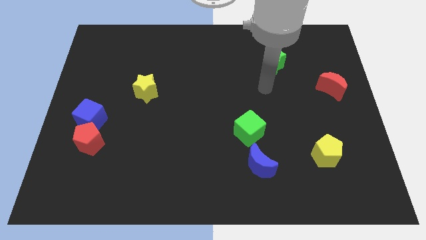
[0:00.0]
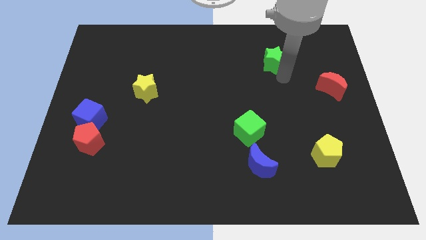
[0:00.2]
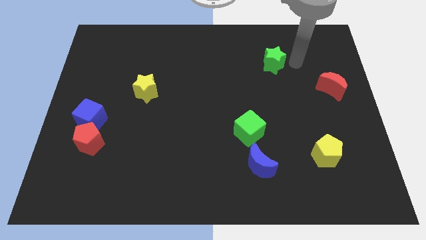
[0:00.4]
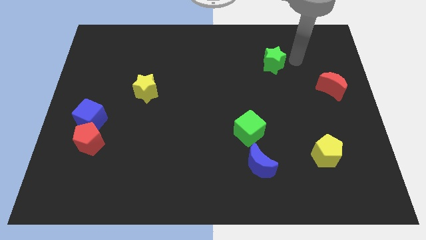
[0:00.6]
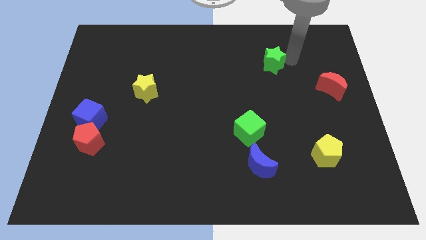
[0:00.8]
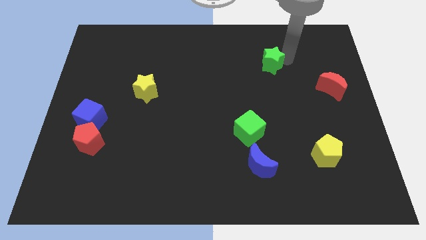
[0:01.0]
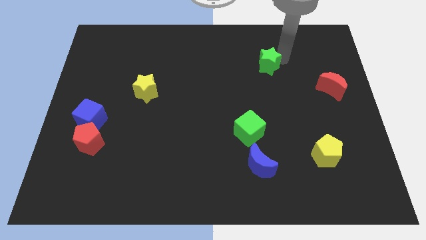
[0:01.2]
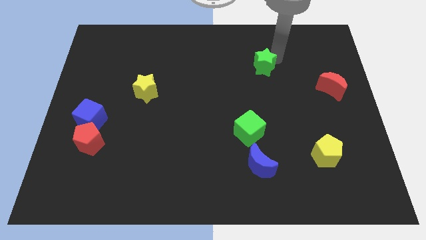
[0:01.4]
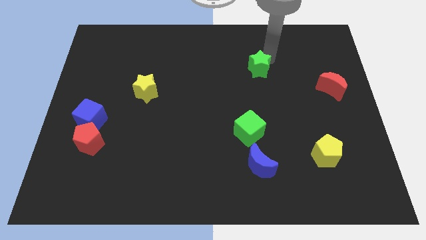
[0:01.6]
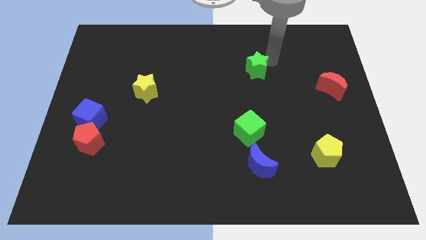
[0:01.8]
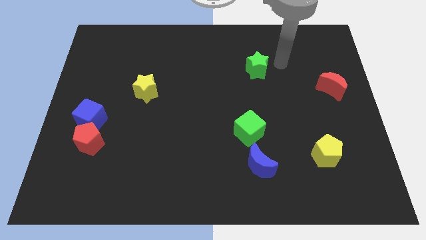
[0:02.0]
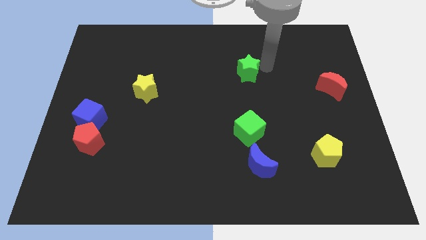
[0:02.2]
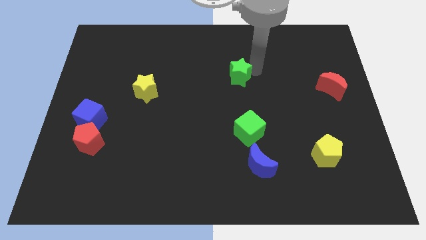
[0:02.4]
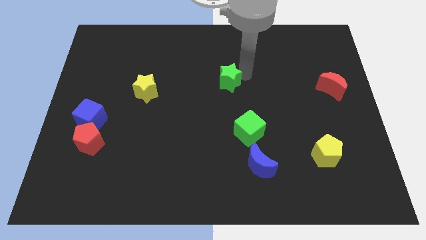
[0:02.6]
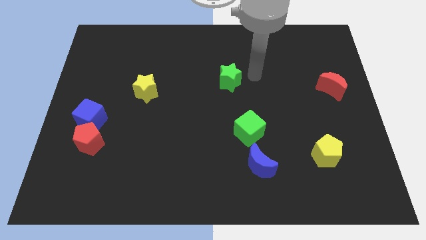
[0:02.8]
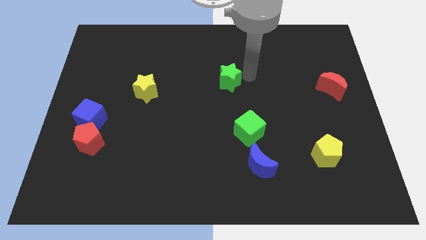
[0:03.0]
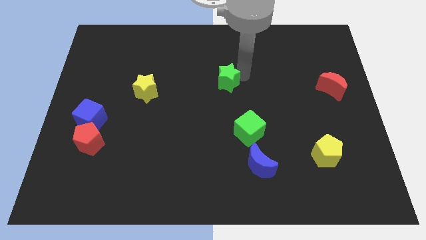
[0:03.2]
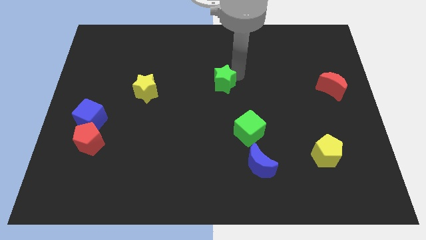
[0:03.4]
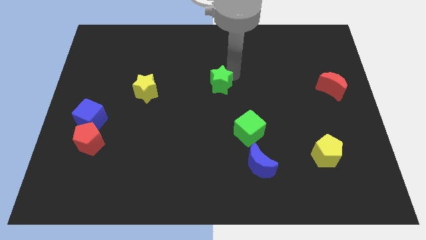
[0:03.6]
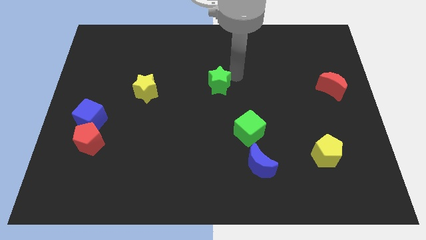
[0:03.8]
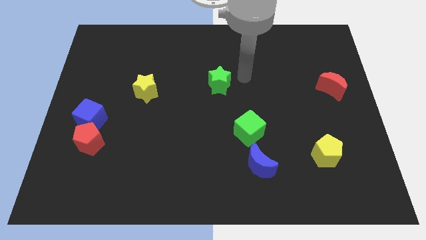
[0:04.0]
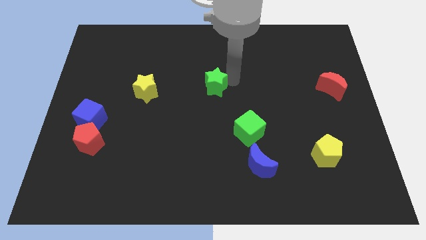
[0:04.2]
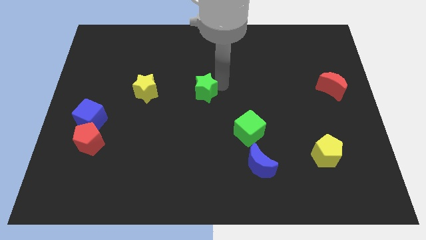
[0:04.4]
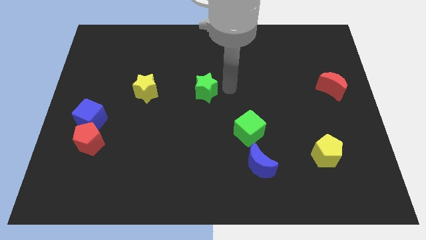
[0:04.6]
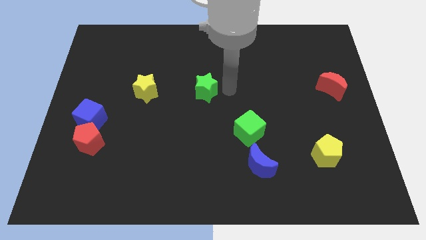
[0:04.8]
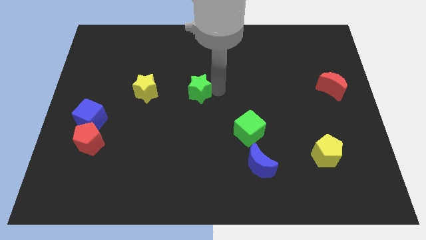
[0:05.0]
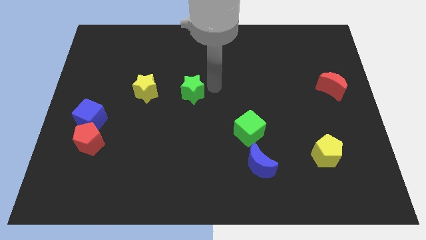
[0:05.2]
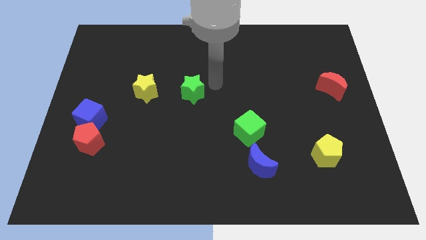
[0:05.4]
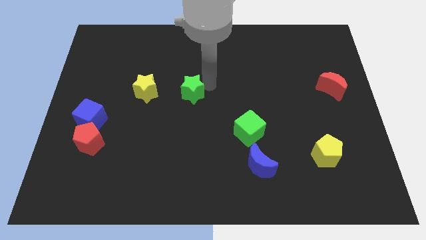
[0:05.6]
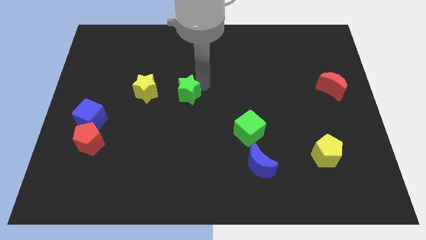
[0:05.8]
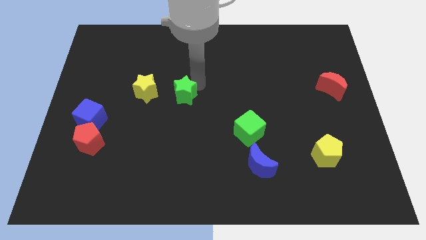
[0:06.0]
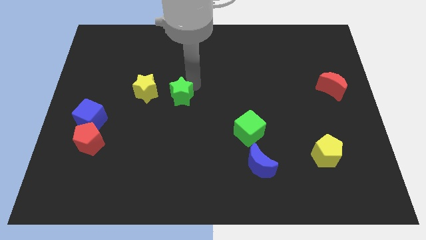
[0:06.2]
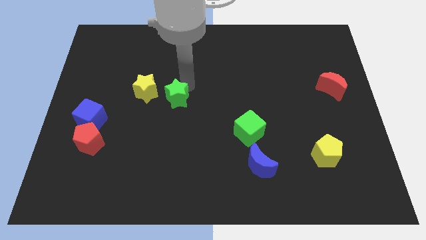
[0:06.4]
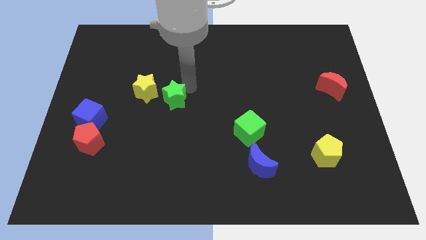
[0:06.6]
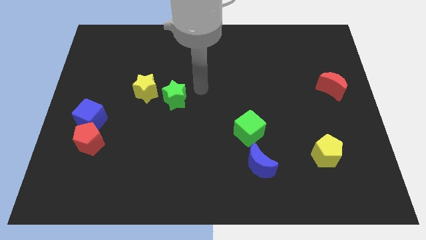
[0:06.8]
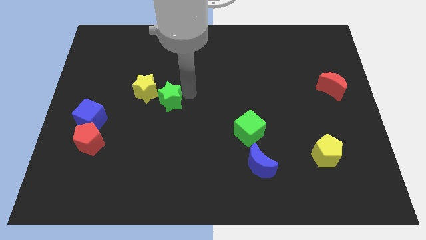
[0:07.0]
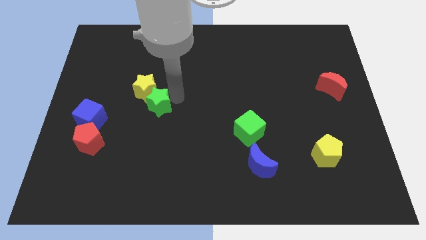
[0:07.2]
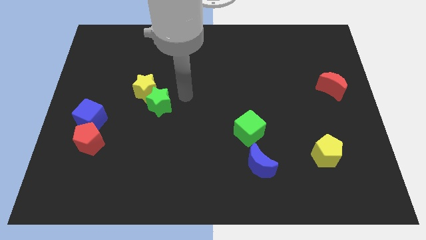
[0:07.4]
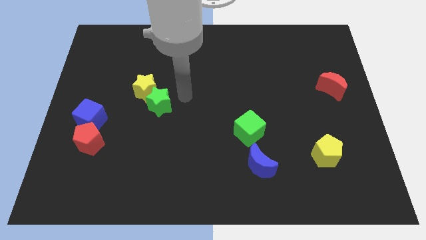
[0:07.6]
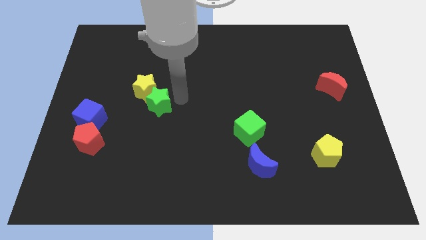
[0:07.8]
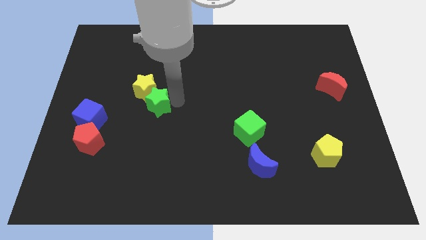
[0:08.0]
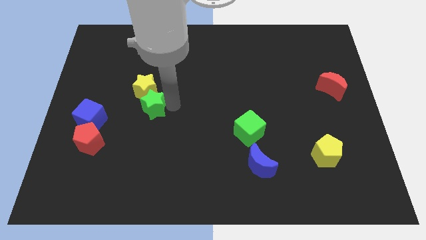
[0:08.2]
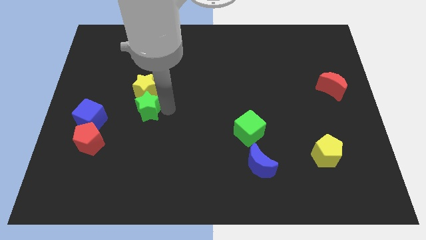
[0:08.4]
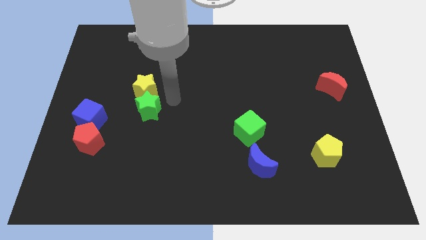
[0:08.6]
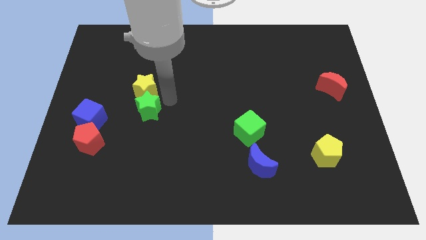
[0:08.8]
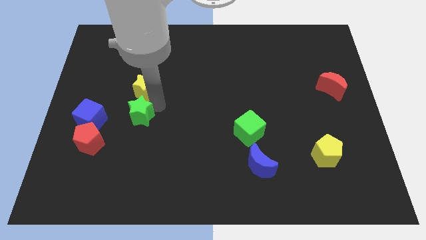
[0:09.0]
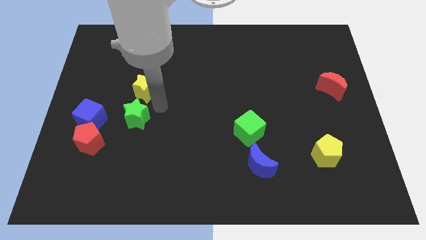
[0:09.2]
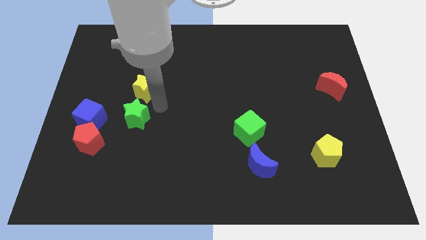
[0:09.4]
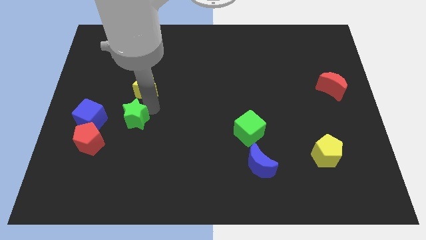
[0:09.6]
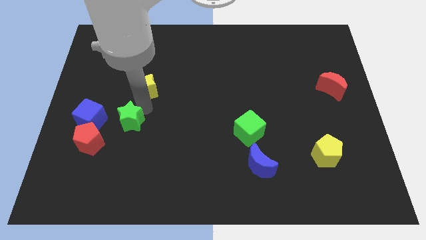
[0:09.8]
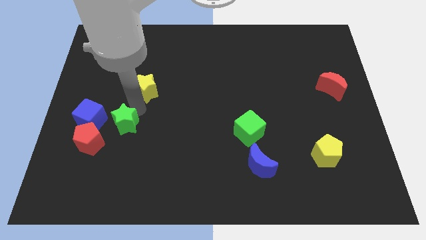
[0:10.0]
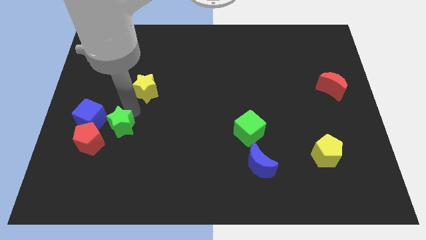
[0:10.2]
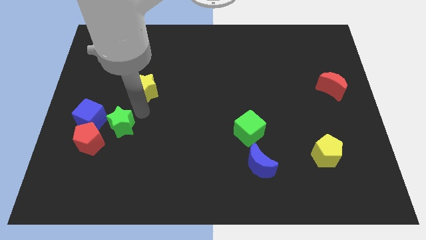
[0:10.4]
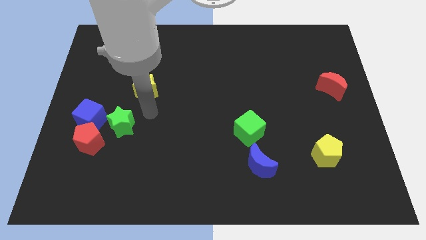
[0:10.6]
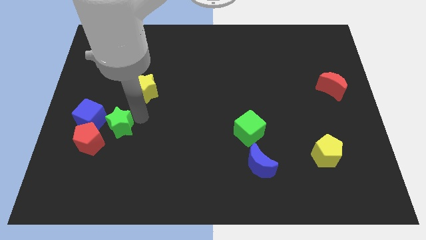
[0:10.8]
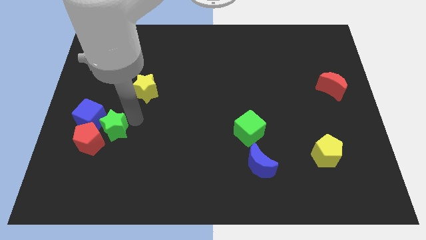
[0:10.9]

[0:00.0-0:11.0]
slide the green star towards the red pentagon

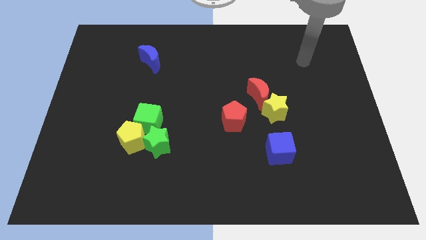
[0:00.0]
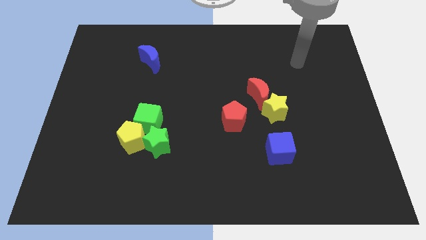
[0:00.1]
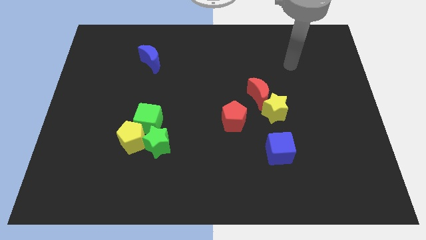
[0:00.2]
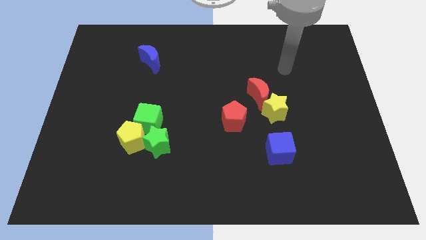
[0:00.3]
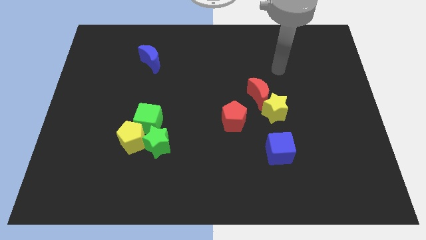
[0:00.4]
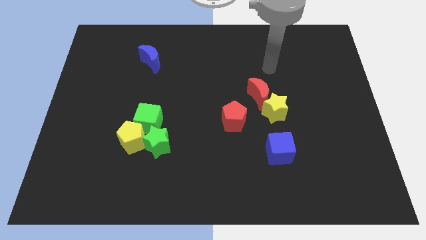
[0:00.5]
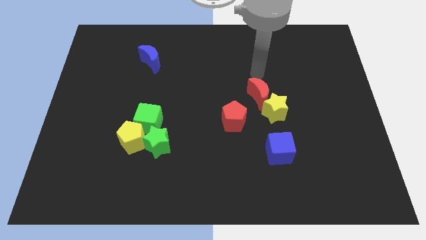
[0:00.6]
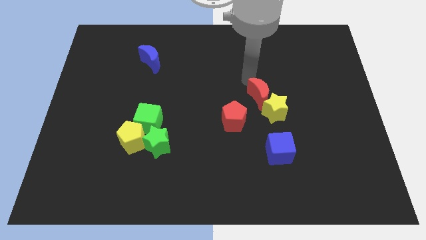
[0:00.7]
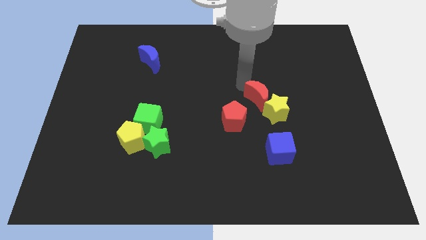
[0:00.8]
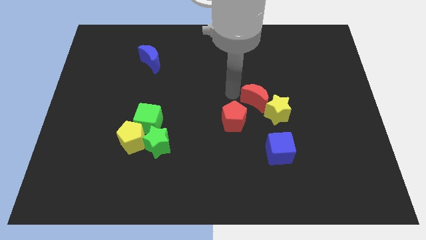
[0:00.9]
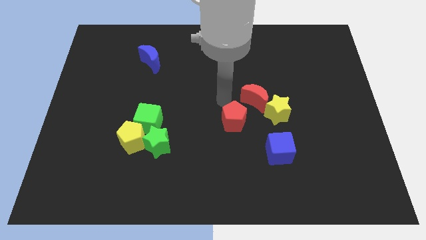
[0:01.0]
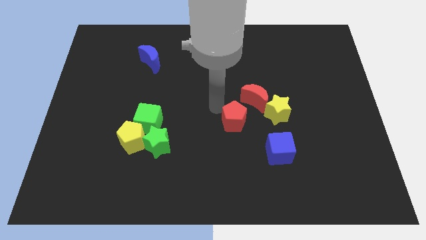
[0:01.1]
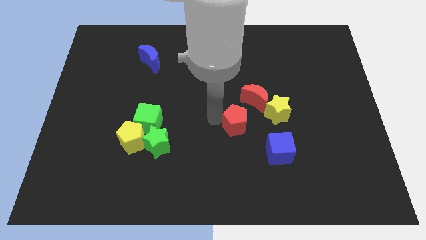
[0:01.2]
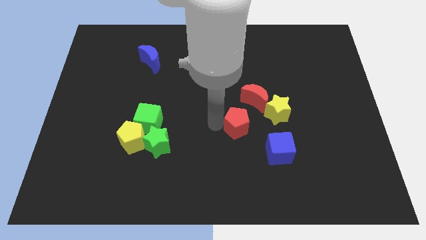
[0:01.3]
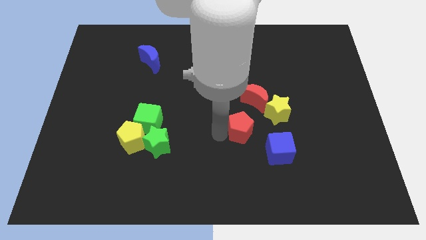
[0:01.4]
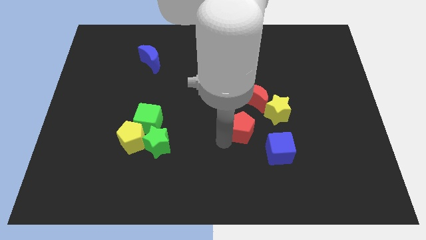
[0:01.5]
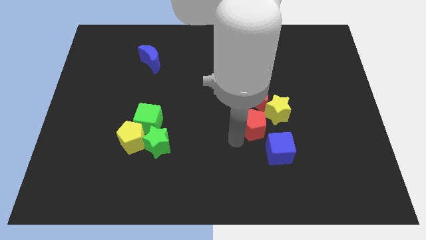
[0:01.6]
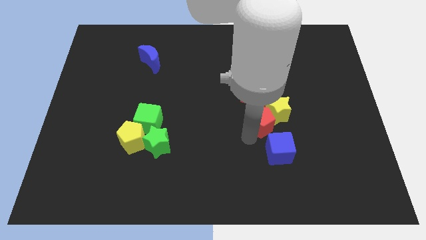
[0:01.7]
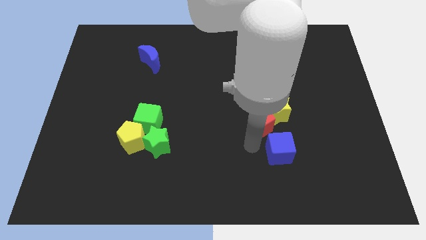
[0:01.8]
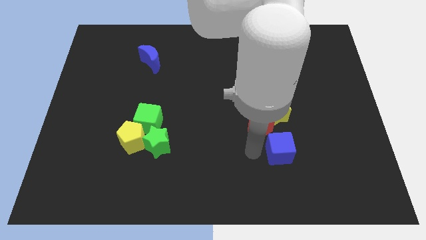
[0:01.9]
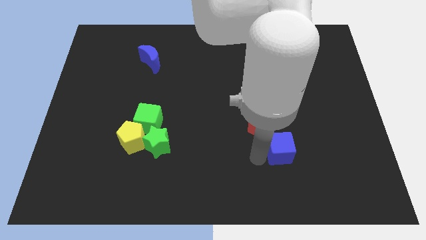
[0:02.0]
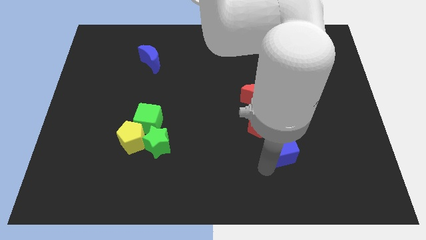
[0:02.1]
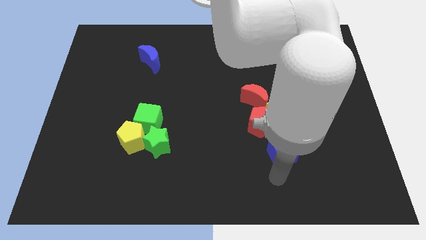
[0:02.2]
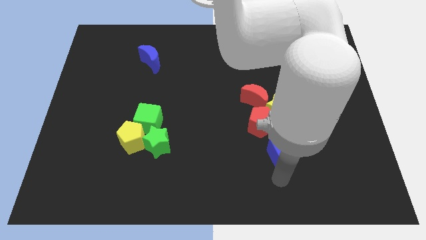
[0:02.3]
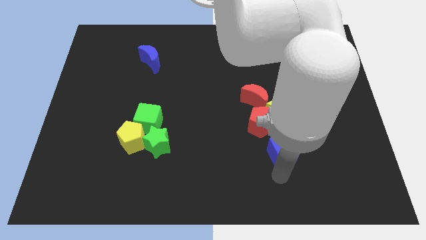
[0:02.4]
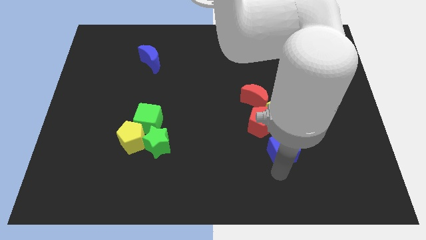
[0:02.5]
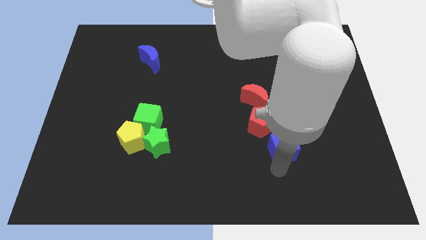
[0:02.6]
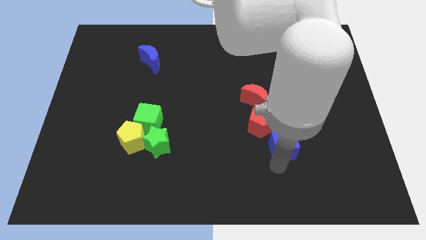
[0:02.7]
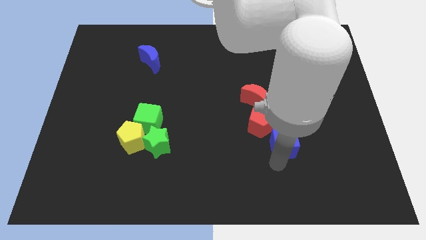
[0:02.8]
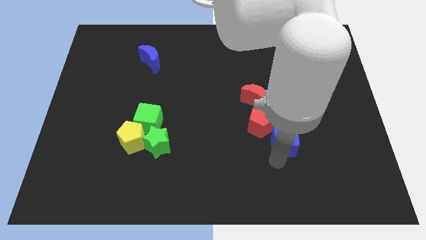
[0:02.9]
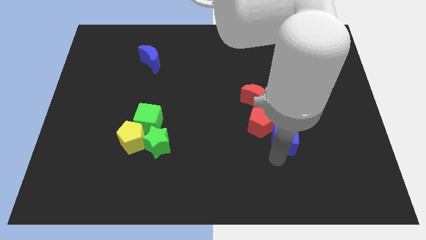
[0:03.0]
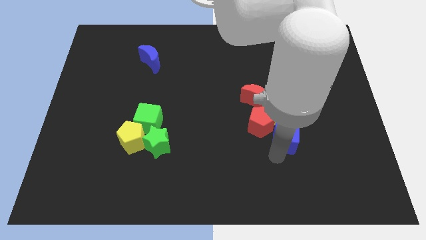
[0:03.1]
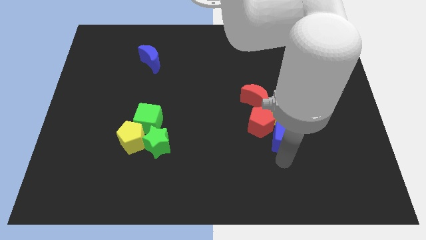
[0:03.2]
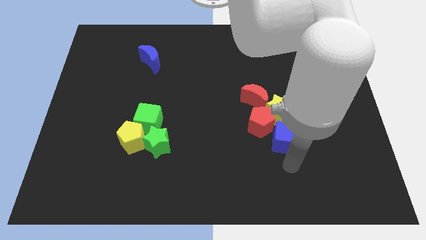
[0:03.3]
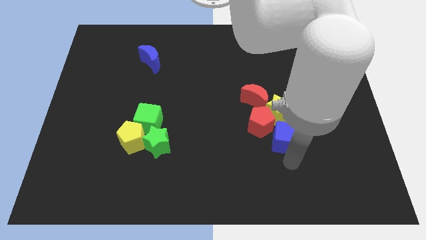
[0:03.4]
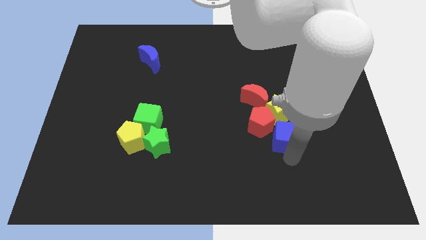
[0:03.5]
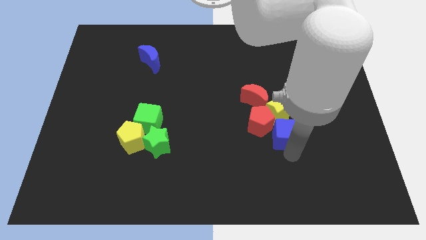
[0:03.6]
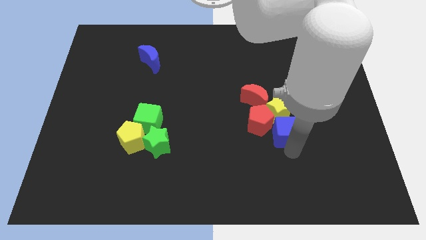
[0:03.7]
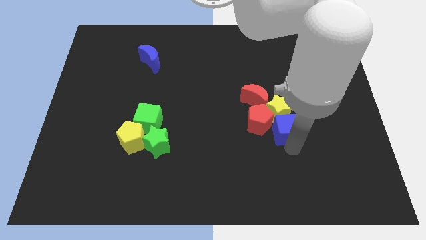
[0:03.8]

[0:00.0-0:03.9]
slide the blue cube towards the yellow star
